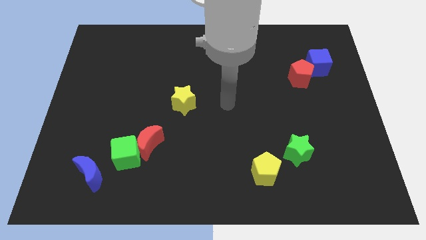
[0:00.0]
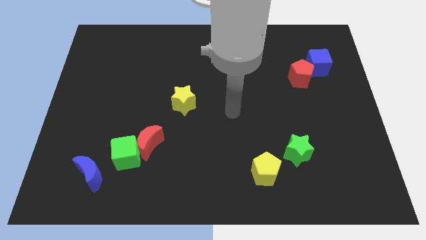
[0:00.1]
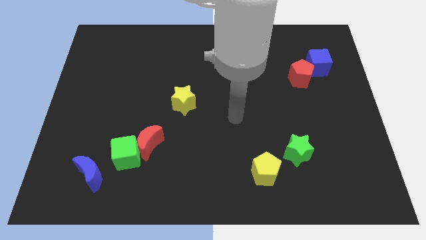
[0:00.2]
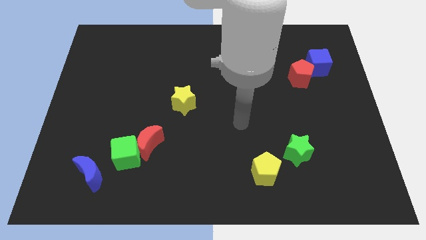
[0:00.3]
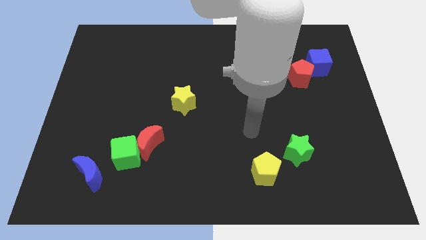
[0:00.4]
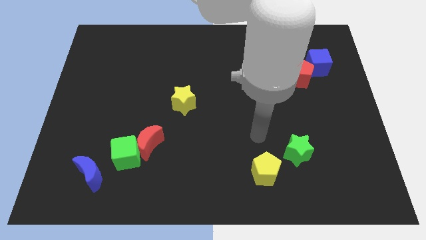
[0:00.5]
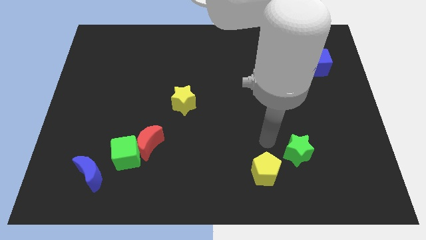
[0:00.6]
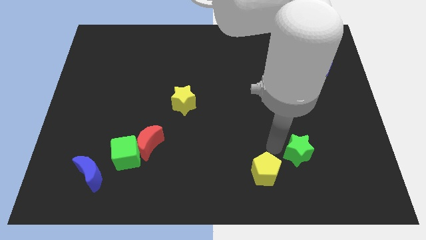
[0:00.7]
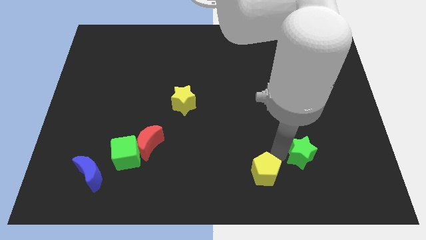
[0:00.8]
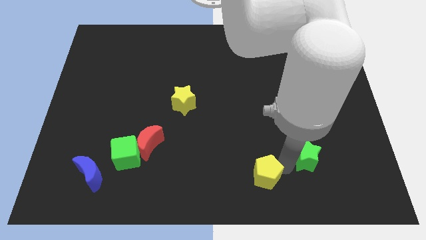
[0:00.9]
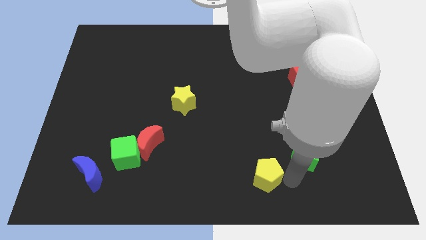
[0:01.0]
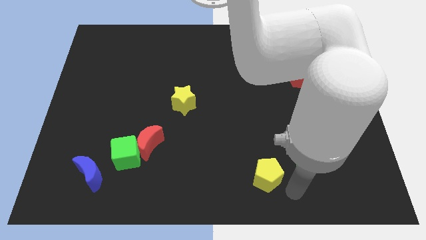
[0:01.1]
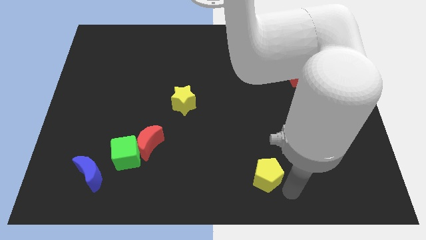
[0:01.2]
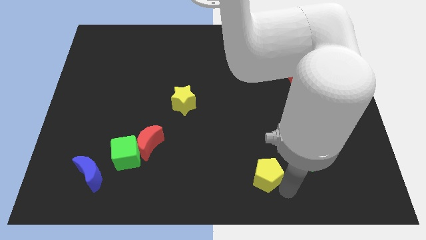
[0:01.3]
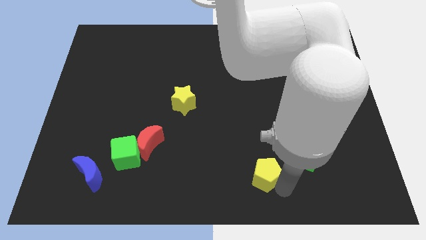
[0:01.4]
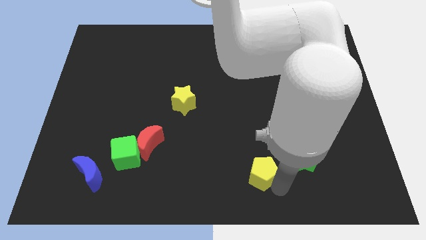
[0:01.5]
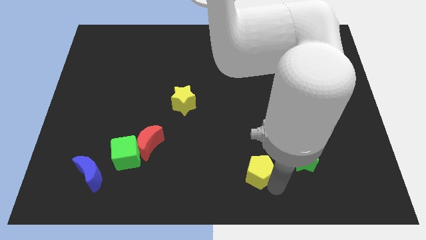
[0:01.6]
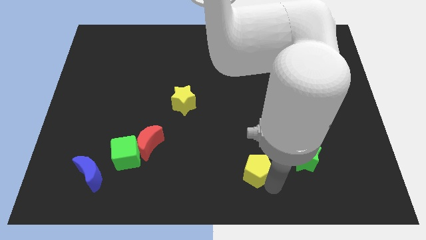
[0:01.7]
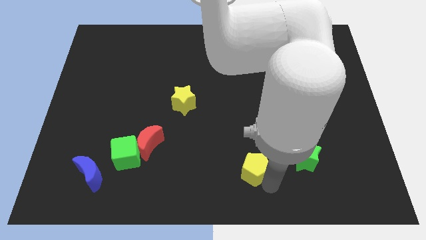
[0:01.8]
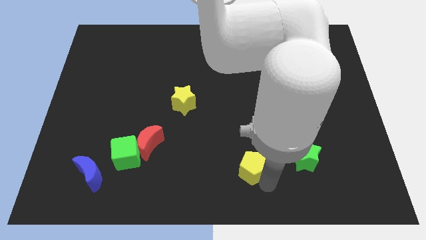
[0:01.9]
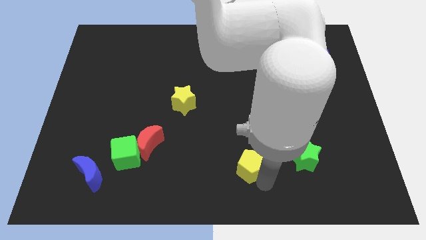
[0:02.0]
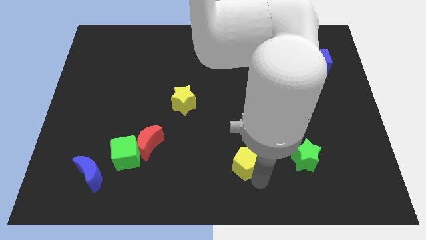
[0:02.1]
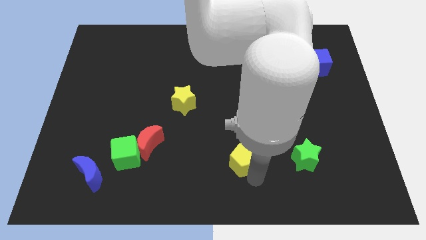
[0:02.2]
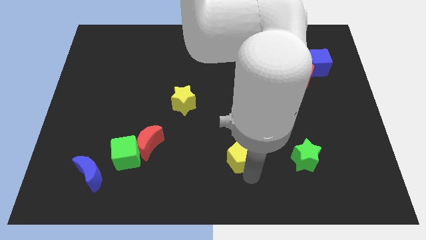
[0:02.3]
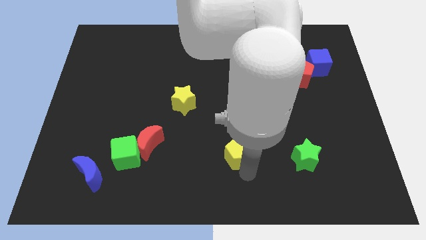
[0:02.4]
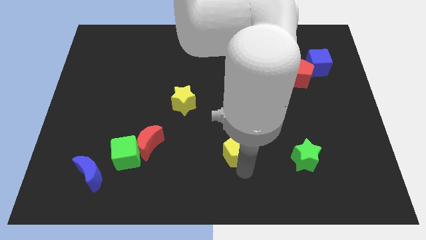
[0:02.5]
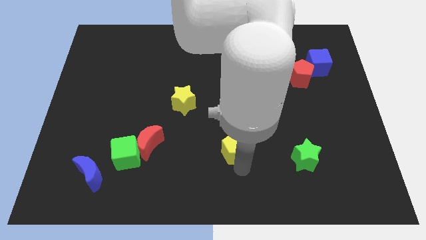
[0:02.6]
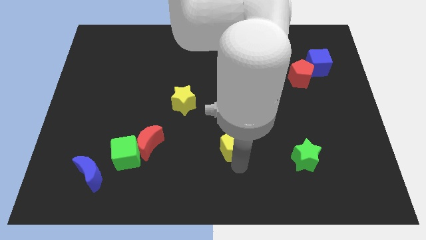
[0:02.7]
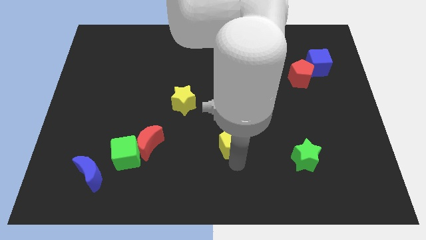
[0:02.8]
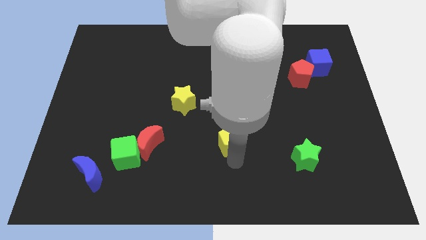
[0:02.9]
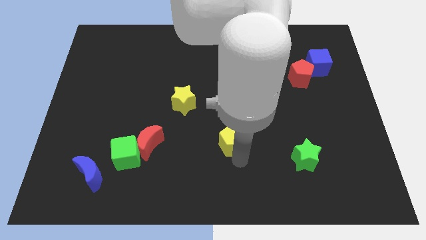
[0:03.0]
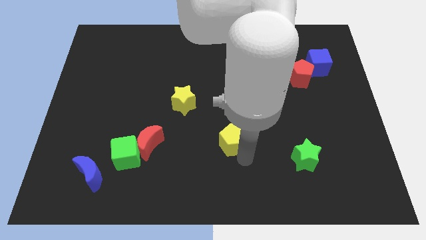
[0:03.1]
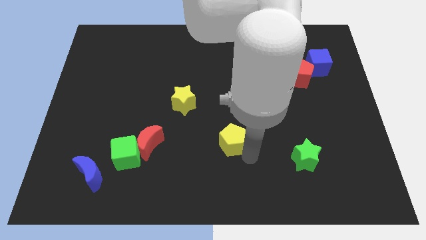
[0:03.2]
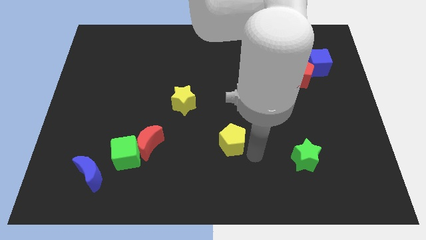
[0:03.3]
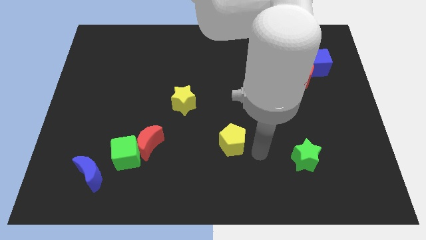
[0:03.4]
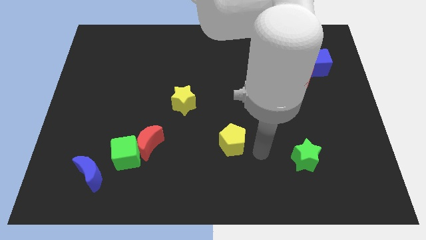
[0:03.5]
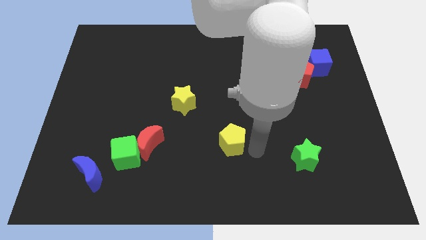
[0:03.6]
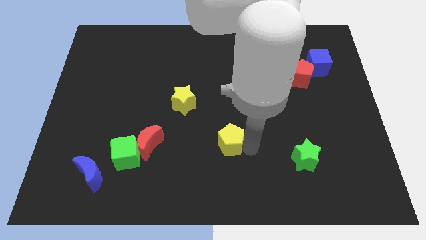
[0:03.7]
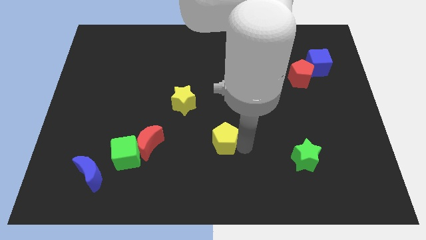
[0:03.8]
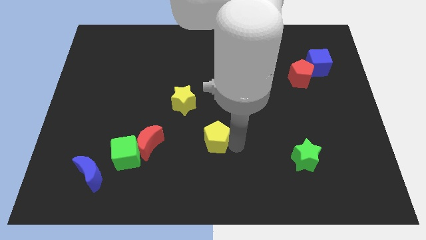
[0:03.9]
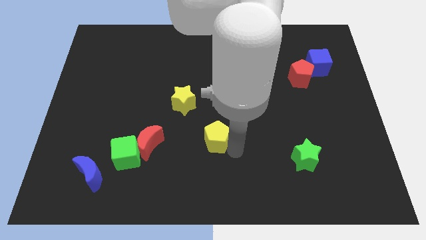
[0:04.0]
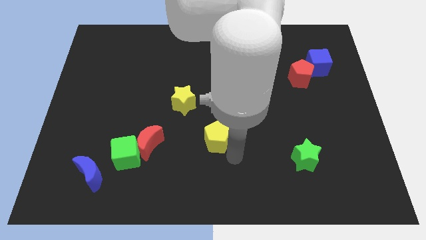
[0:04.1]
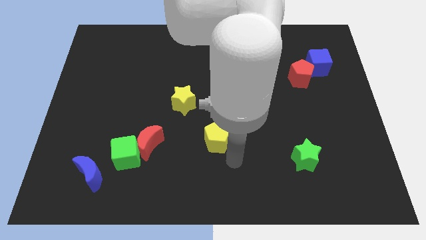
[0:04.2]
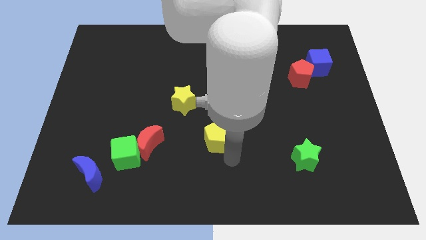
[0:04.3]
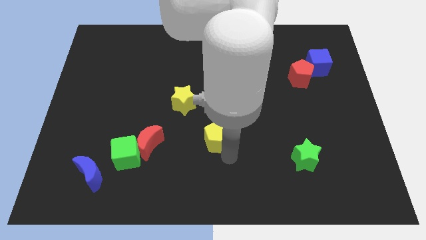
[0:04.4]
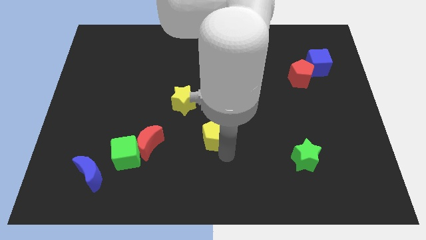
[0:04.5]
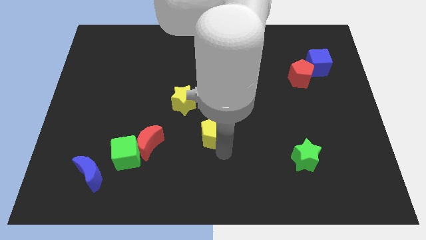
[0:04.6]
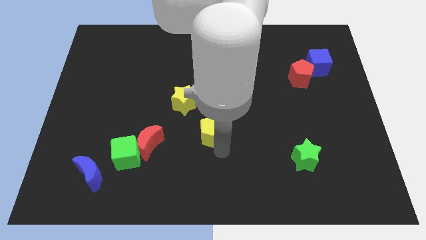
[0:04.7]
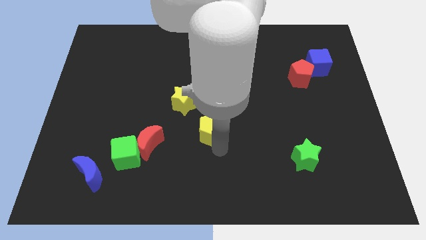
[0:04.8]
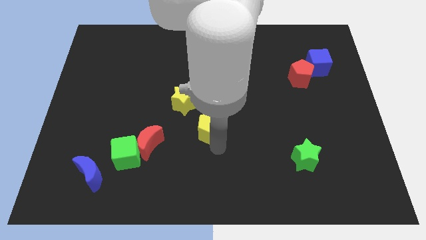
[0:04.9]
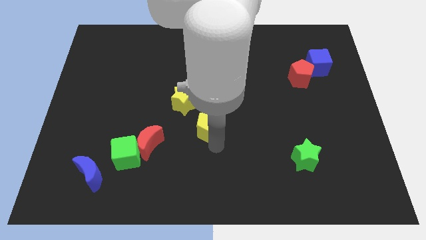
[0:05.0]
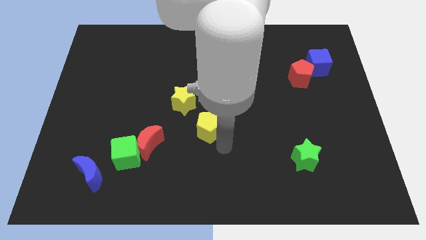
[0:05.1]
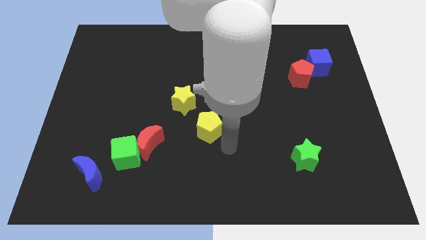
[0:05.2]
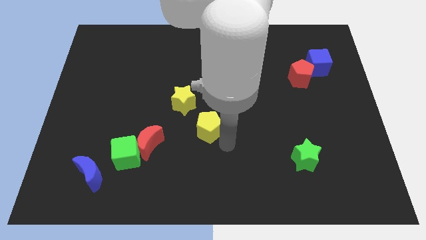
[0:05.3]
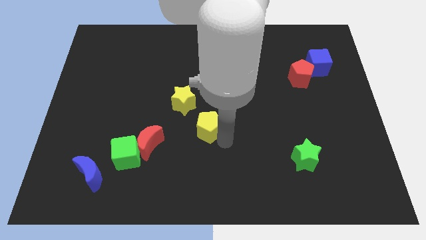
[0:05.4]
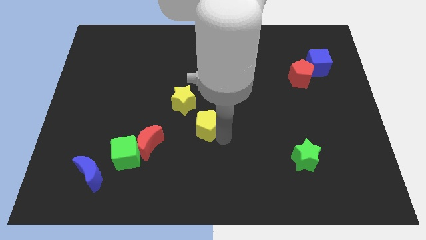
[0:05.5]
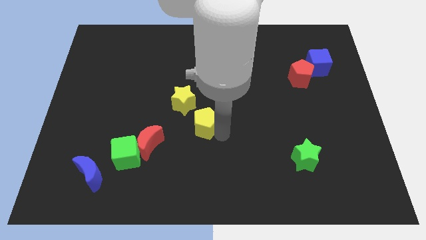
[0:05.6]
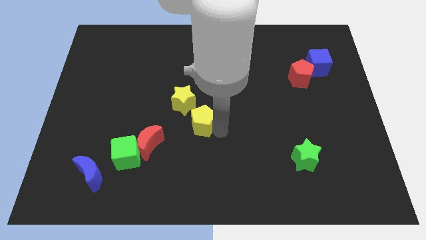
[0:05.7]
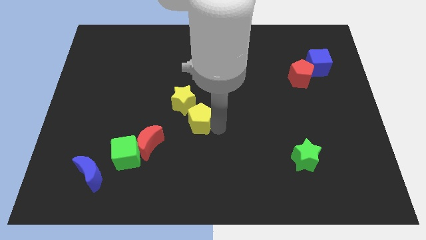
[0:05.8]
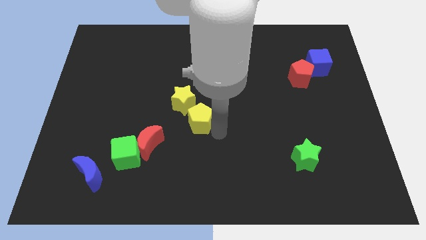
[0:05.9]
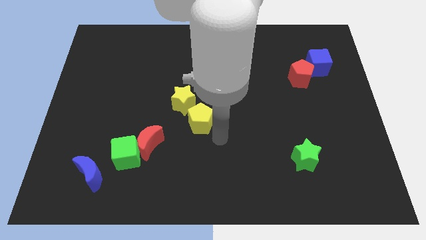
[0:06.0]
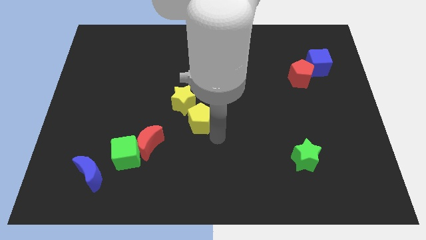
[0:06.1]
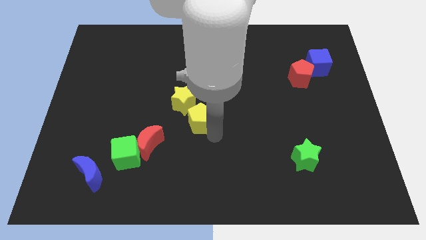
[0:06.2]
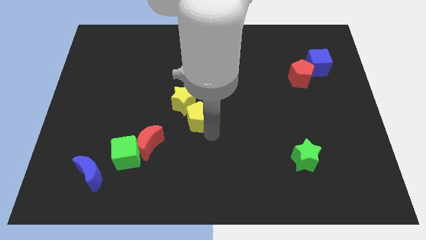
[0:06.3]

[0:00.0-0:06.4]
move the yellow pentagon next to the yellow star

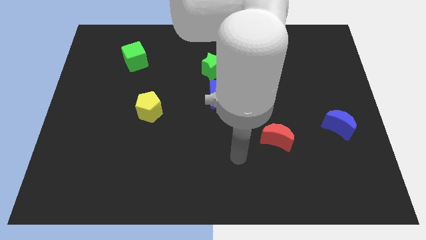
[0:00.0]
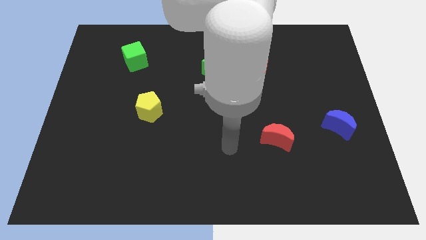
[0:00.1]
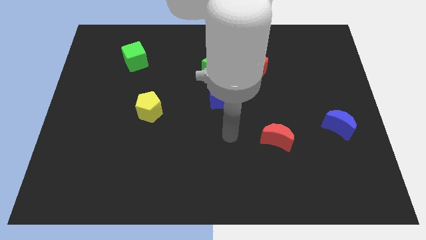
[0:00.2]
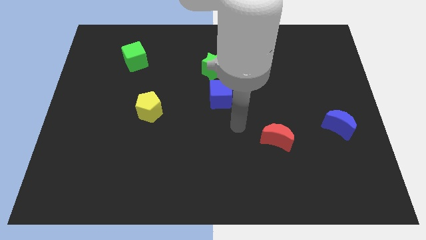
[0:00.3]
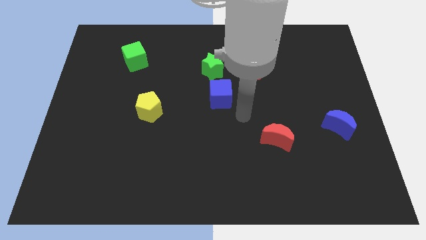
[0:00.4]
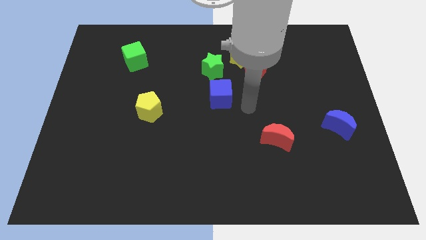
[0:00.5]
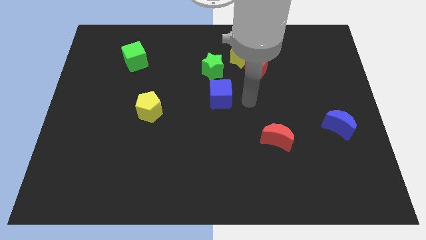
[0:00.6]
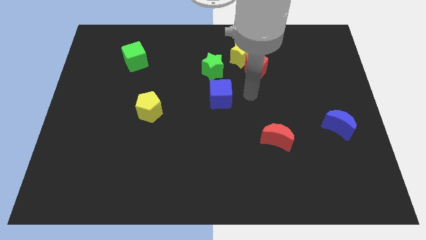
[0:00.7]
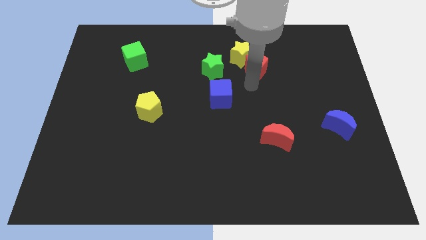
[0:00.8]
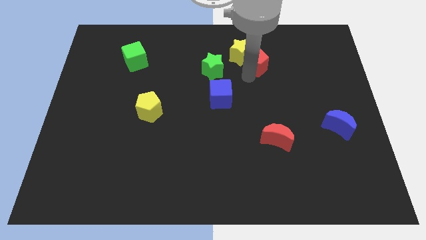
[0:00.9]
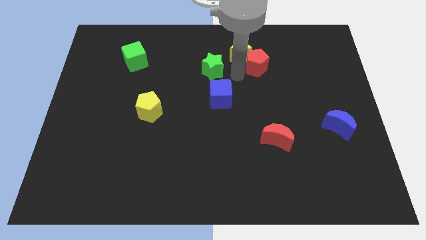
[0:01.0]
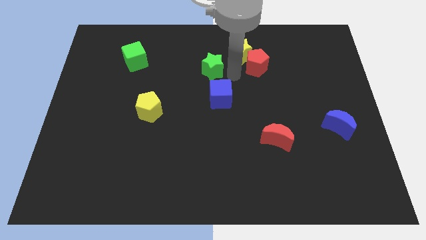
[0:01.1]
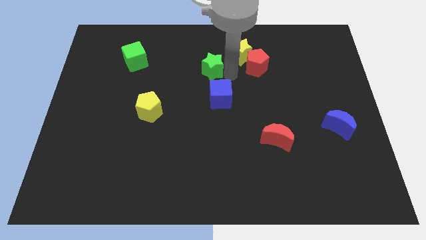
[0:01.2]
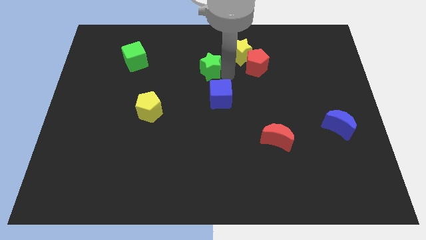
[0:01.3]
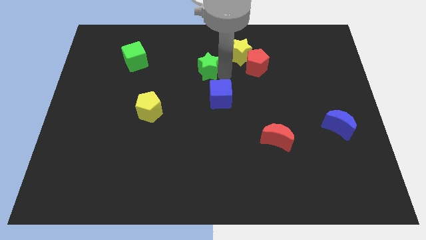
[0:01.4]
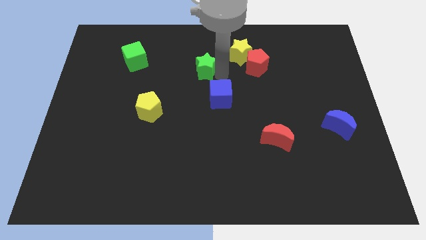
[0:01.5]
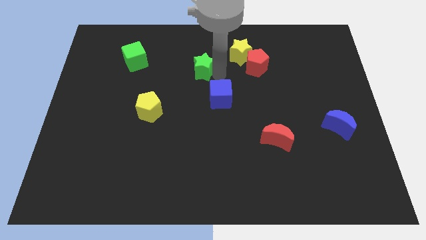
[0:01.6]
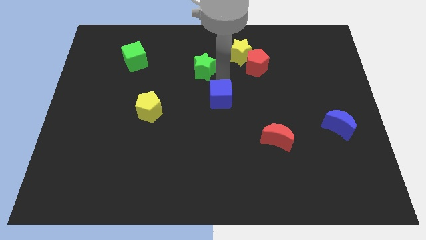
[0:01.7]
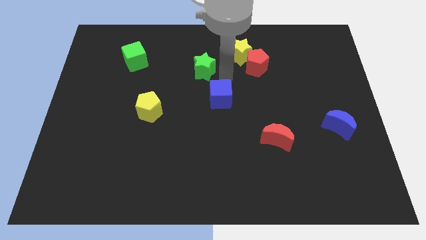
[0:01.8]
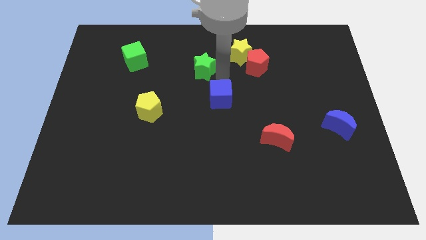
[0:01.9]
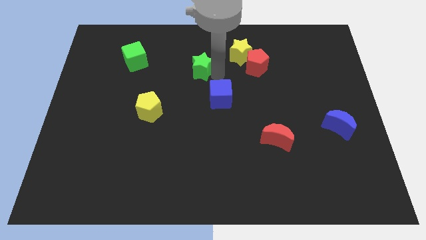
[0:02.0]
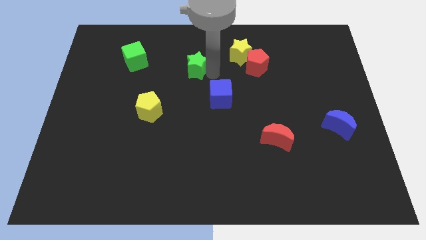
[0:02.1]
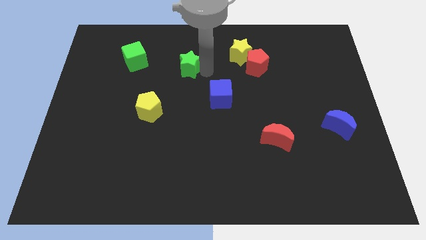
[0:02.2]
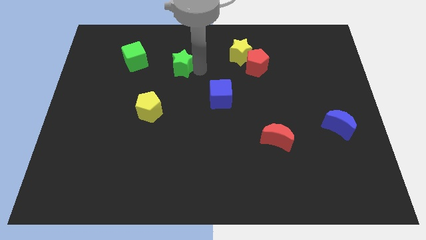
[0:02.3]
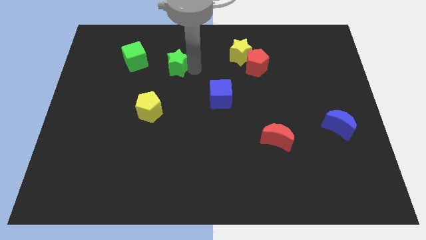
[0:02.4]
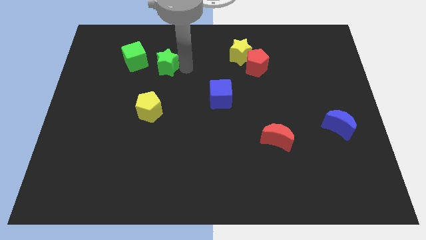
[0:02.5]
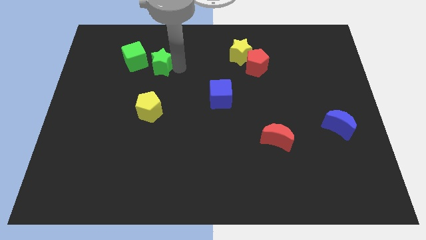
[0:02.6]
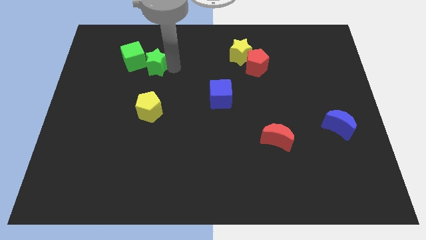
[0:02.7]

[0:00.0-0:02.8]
move the green star next to the green cube
